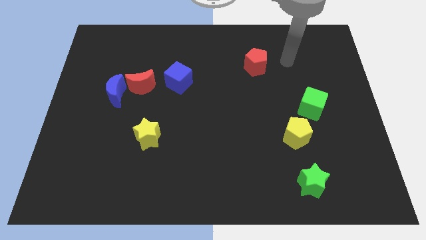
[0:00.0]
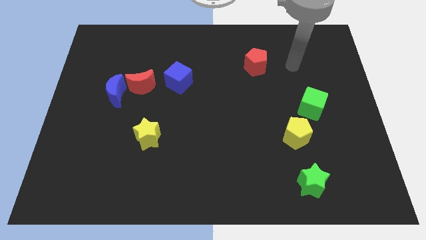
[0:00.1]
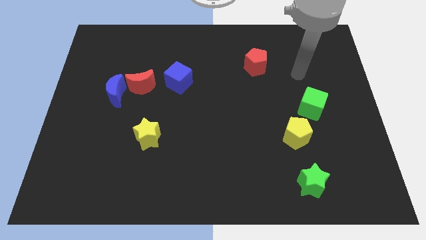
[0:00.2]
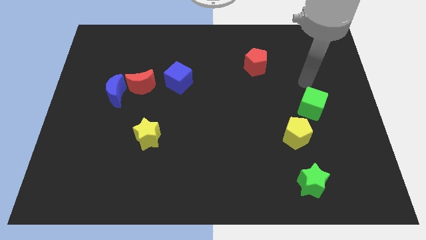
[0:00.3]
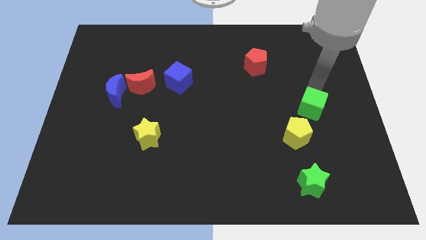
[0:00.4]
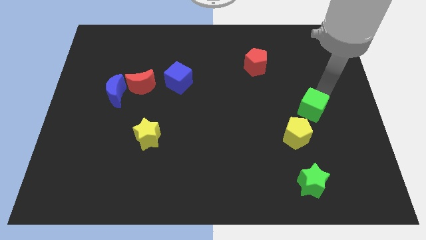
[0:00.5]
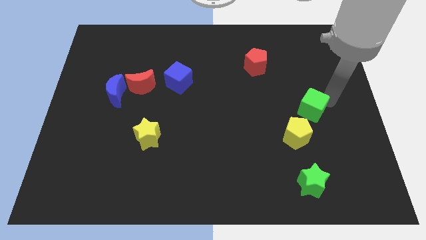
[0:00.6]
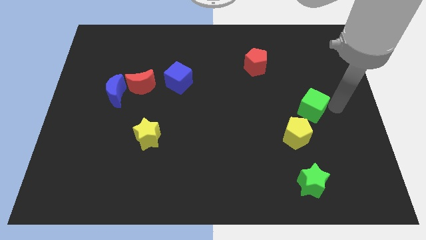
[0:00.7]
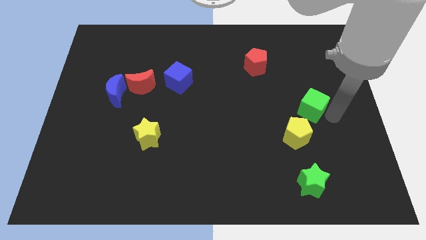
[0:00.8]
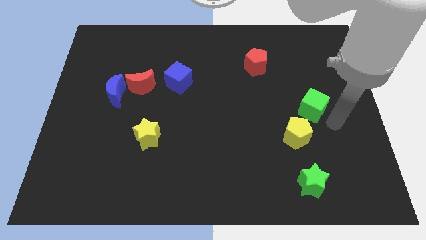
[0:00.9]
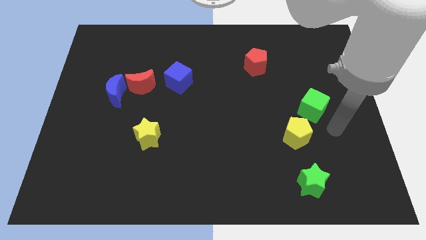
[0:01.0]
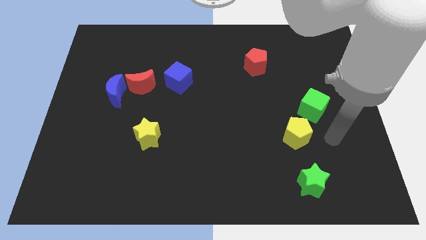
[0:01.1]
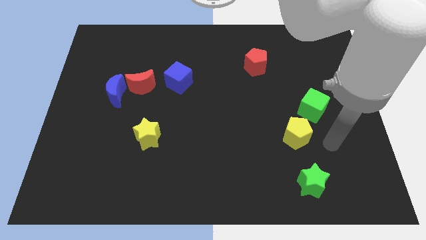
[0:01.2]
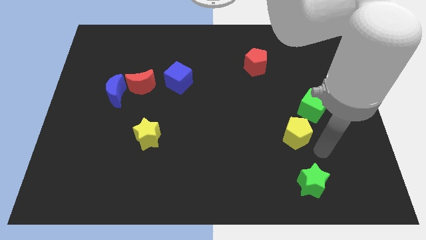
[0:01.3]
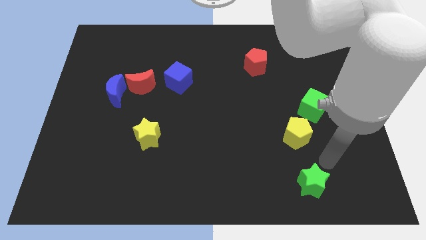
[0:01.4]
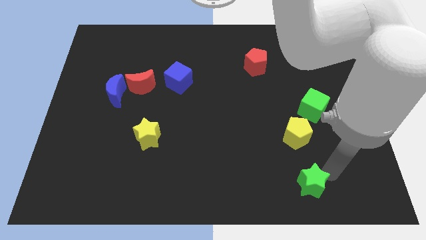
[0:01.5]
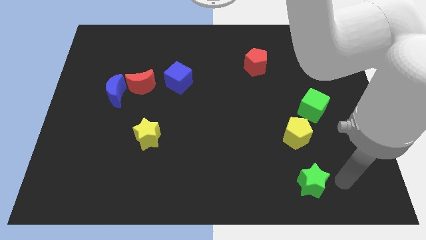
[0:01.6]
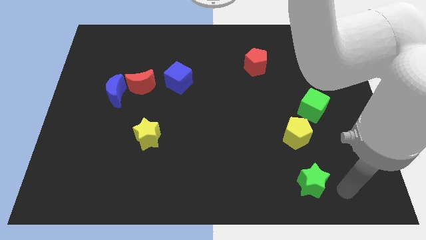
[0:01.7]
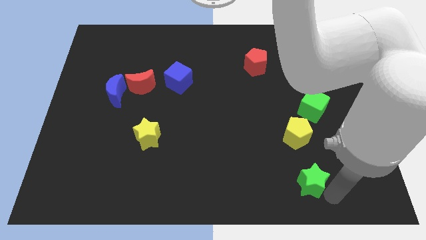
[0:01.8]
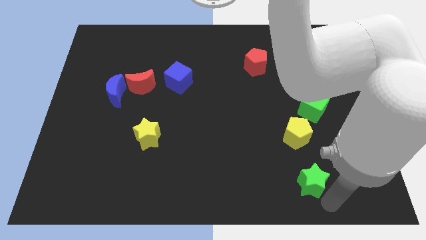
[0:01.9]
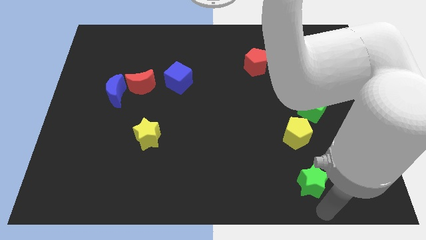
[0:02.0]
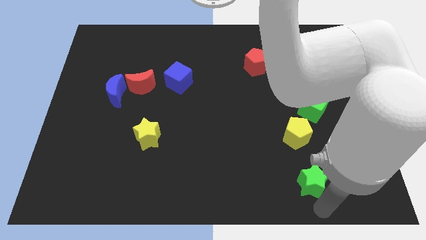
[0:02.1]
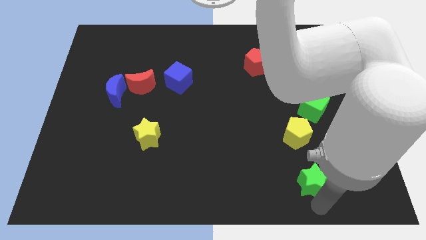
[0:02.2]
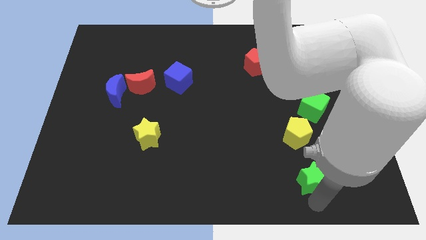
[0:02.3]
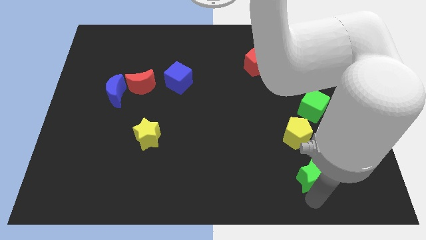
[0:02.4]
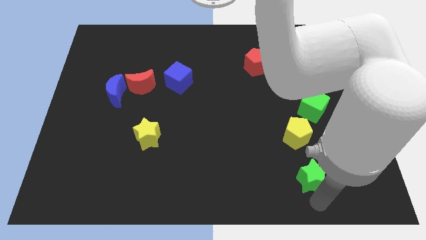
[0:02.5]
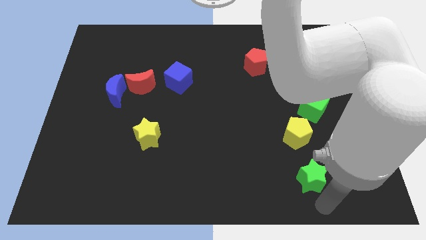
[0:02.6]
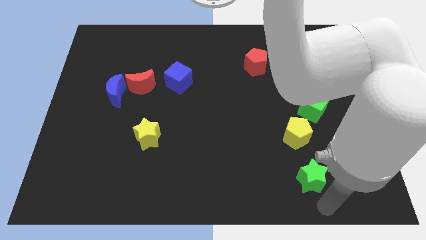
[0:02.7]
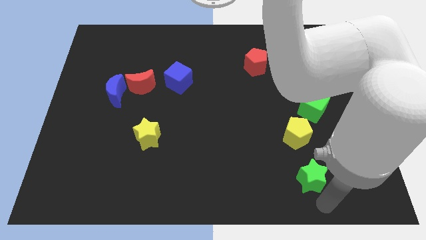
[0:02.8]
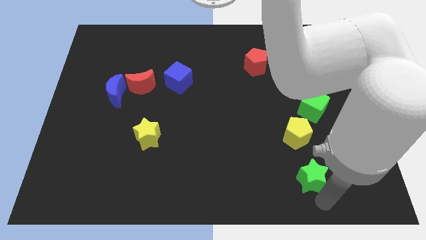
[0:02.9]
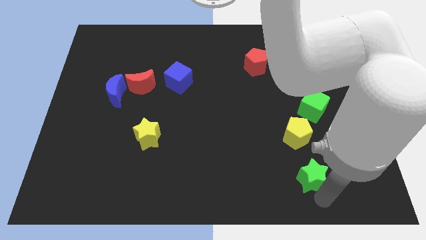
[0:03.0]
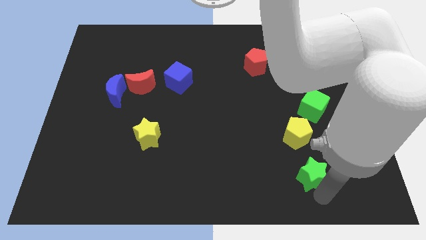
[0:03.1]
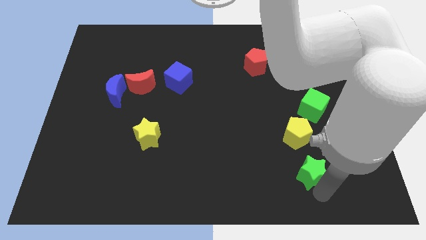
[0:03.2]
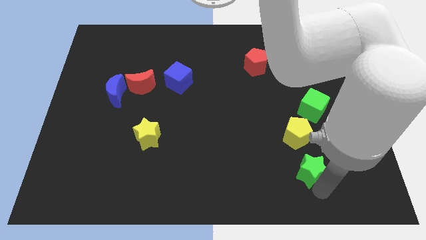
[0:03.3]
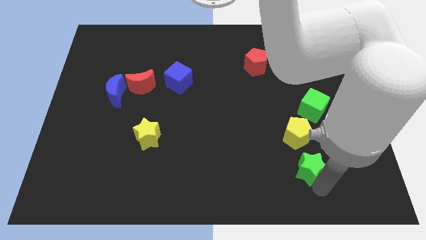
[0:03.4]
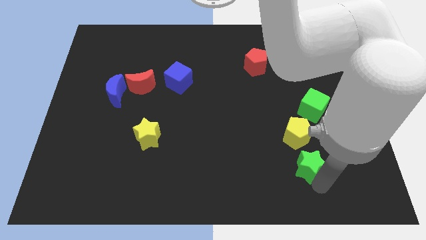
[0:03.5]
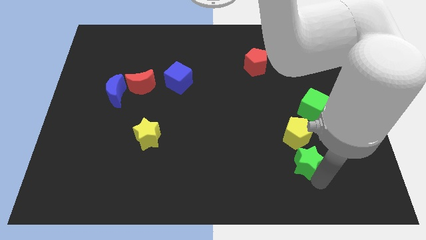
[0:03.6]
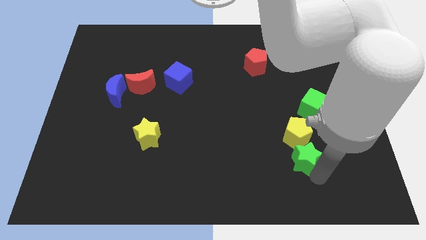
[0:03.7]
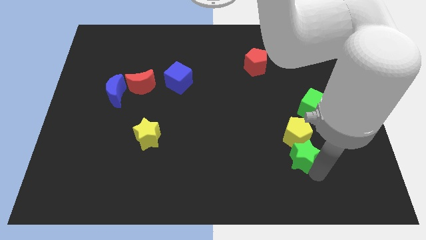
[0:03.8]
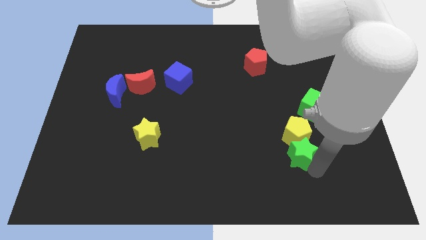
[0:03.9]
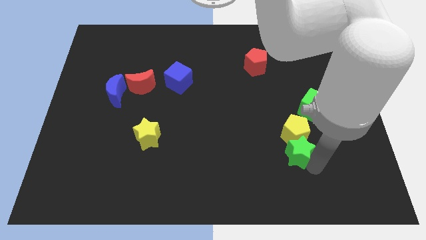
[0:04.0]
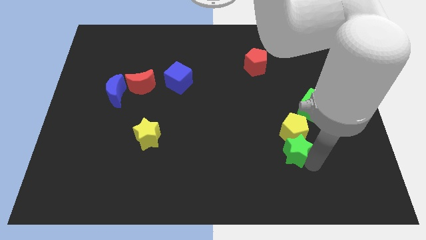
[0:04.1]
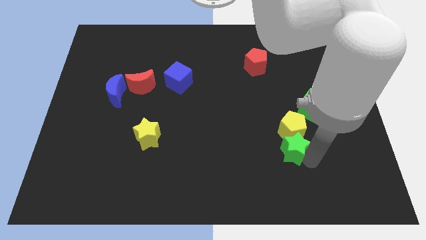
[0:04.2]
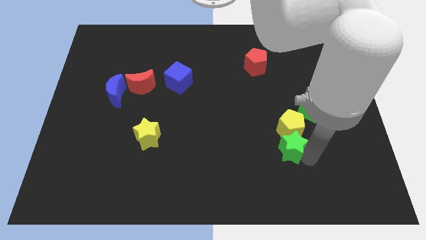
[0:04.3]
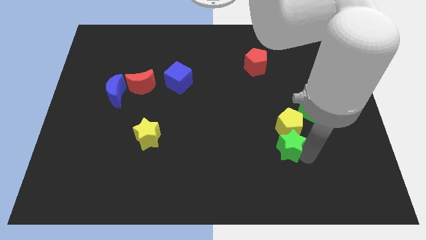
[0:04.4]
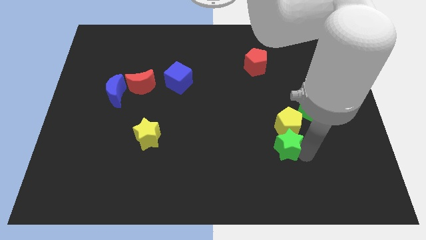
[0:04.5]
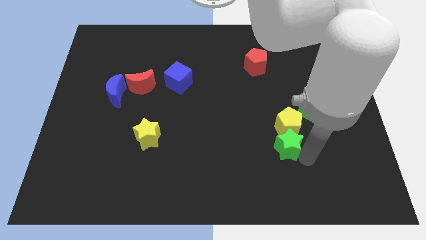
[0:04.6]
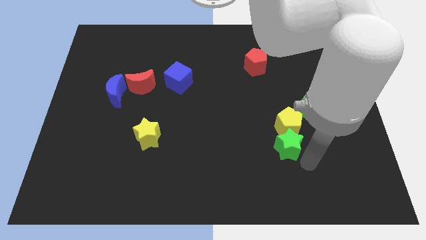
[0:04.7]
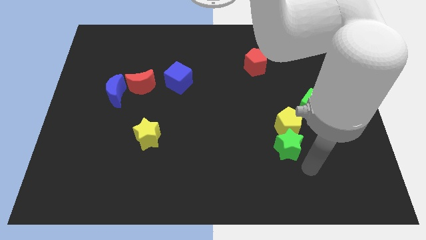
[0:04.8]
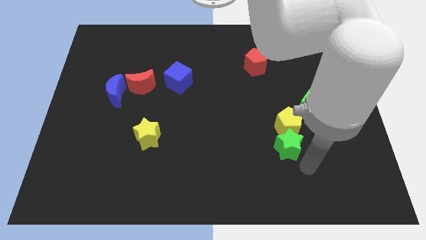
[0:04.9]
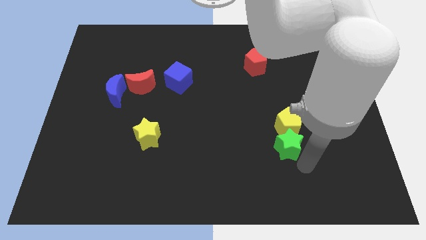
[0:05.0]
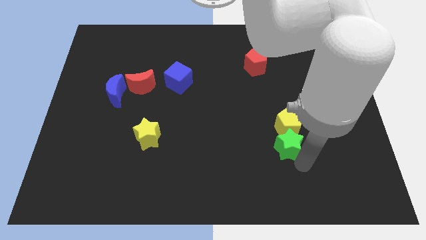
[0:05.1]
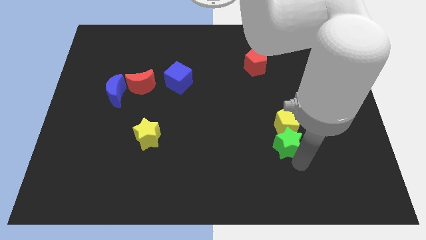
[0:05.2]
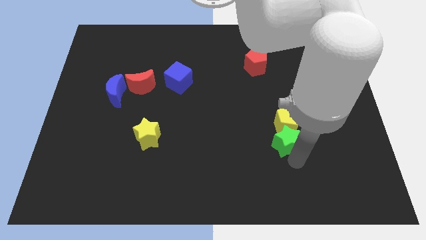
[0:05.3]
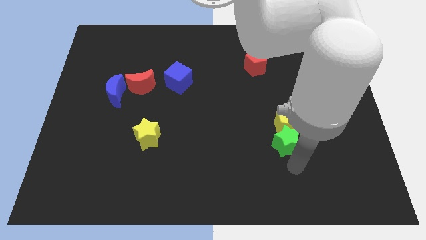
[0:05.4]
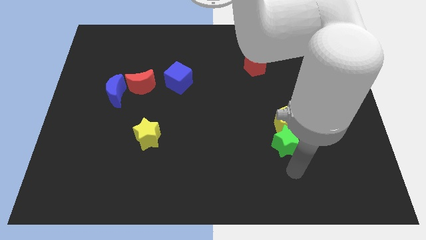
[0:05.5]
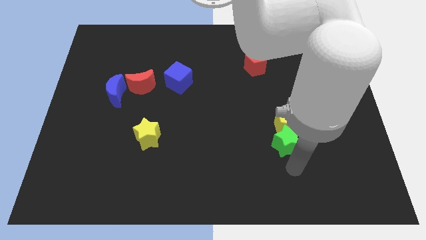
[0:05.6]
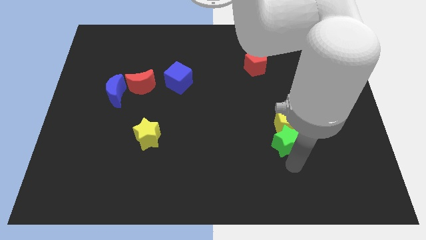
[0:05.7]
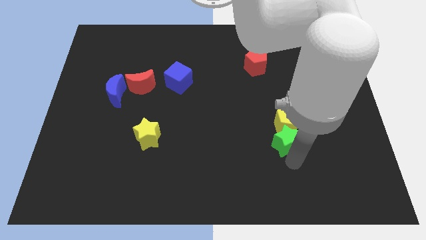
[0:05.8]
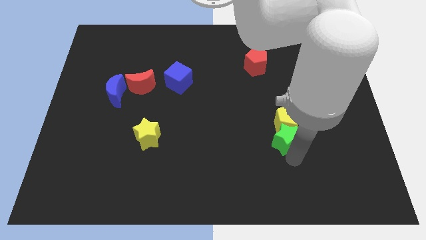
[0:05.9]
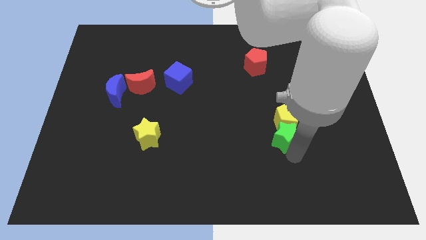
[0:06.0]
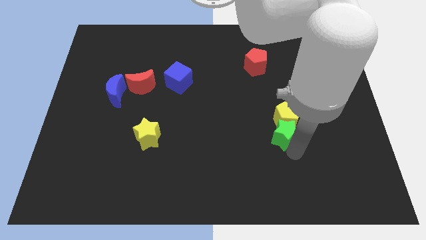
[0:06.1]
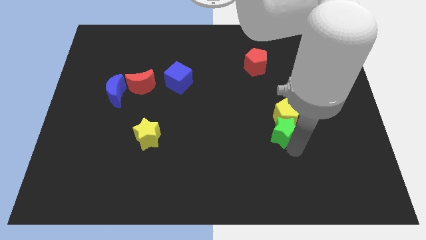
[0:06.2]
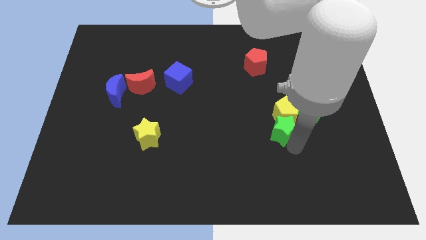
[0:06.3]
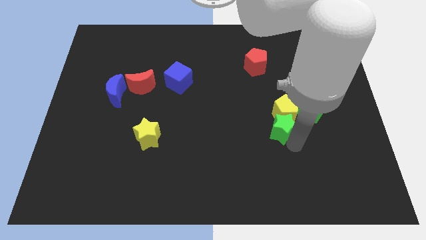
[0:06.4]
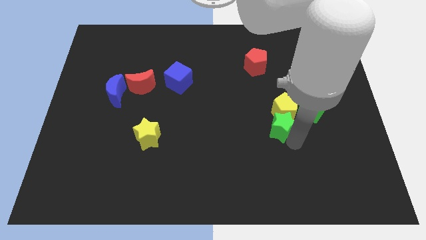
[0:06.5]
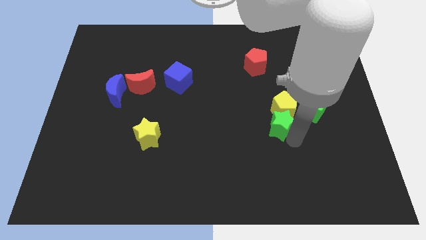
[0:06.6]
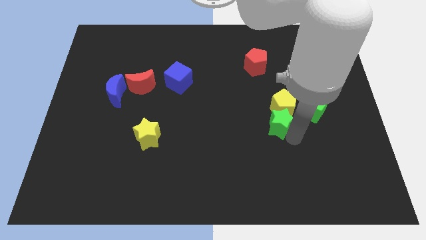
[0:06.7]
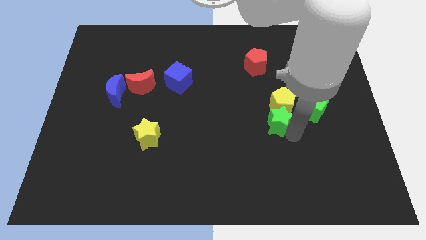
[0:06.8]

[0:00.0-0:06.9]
move the green star just left of the green cube

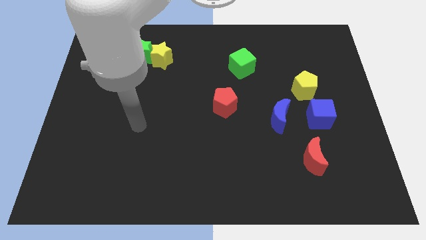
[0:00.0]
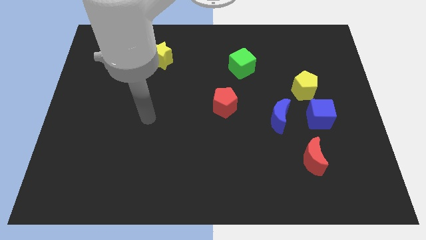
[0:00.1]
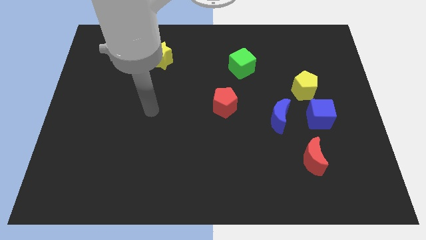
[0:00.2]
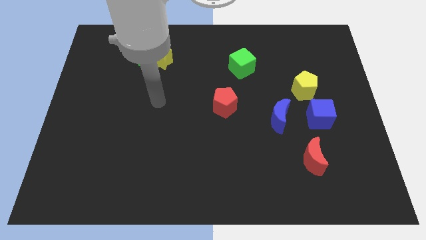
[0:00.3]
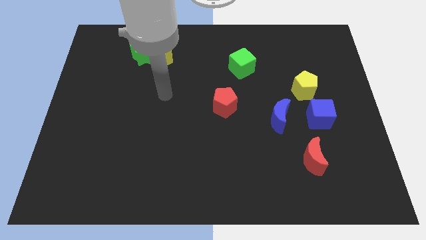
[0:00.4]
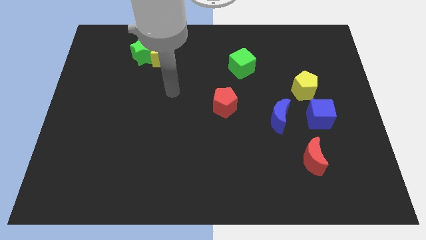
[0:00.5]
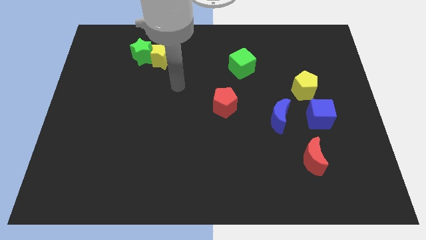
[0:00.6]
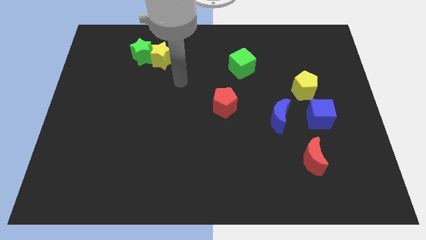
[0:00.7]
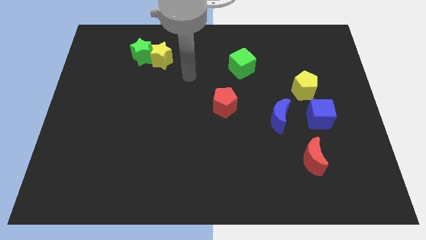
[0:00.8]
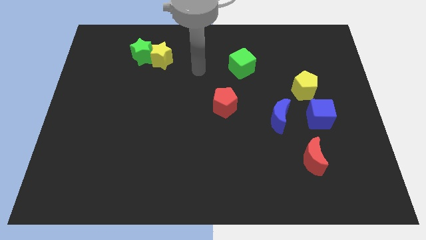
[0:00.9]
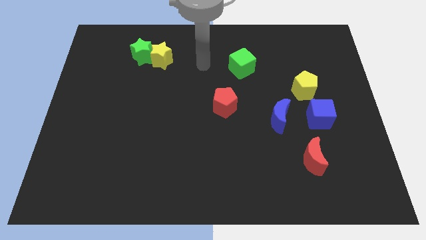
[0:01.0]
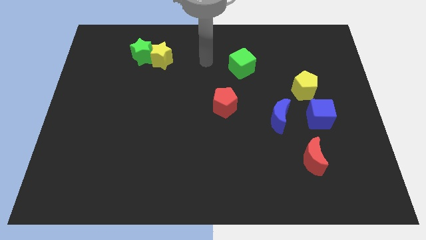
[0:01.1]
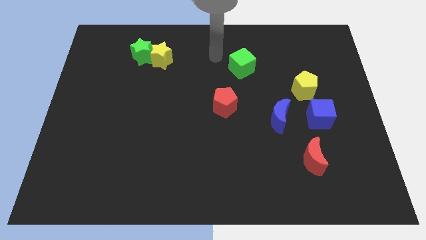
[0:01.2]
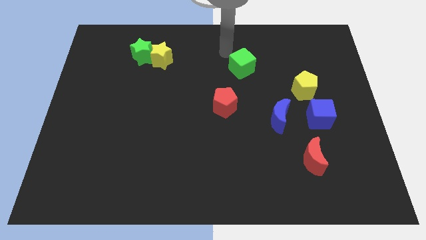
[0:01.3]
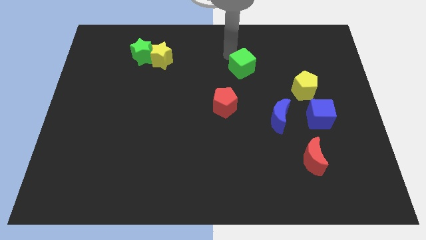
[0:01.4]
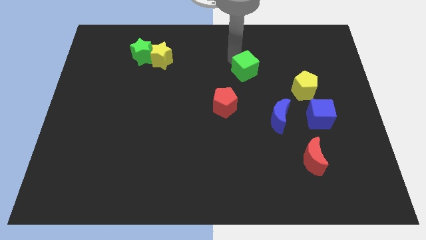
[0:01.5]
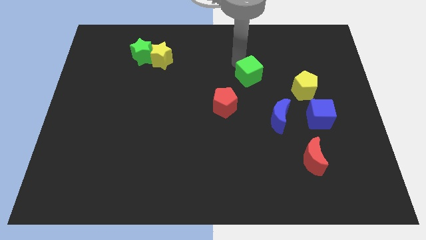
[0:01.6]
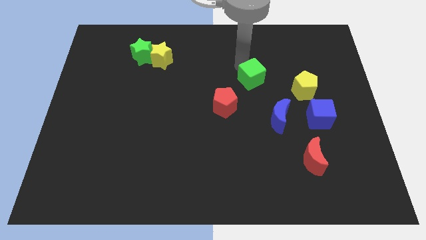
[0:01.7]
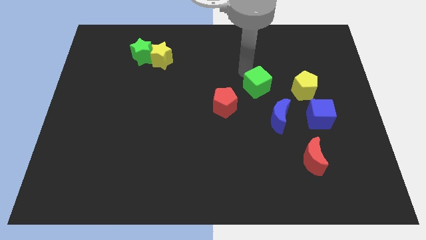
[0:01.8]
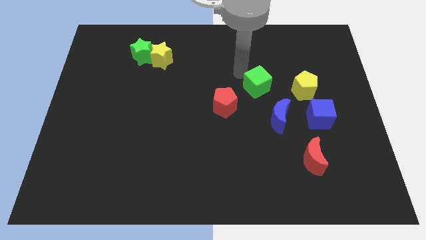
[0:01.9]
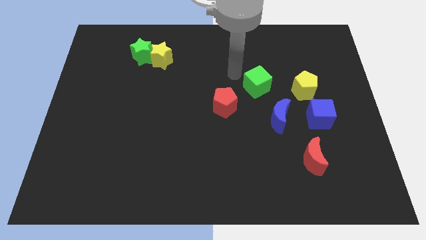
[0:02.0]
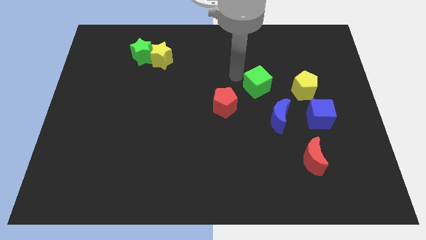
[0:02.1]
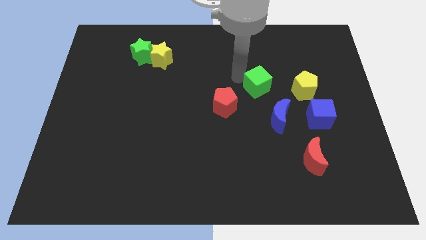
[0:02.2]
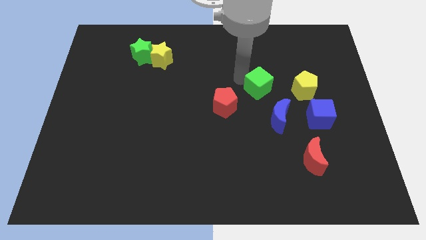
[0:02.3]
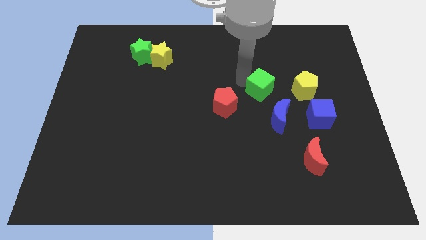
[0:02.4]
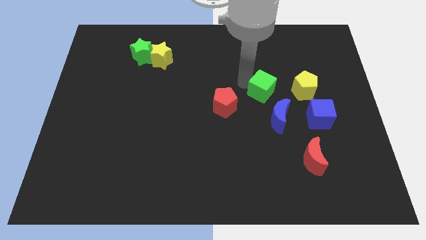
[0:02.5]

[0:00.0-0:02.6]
put the green cube just right of the red pentagon
